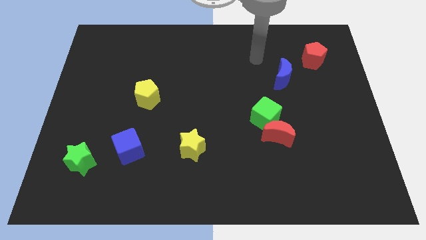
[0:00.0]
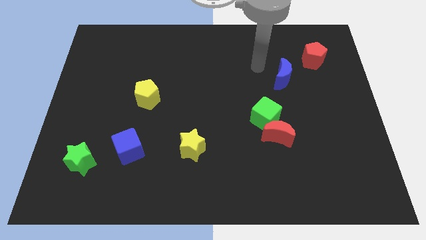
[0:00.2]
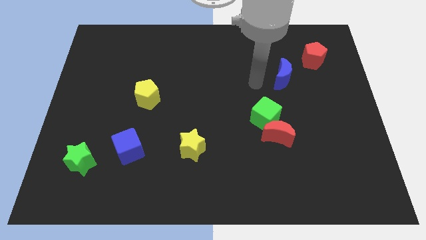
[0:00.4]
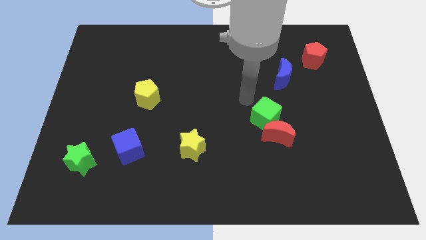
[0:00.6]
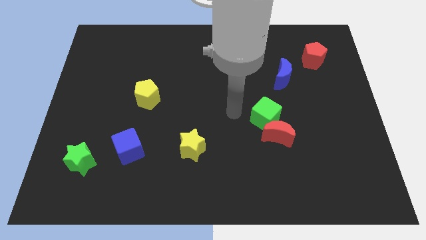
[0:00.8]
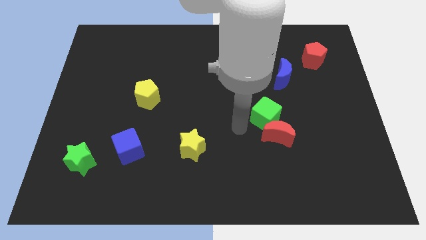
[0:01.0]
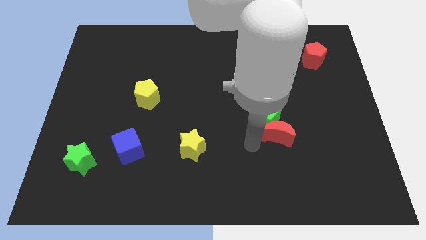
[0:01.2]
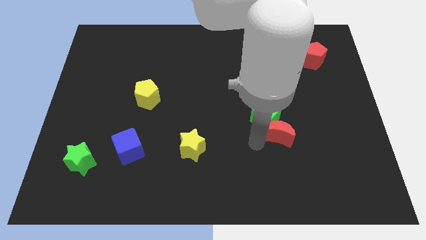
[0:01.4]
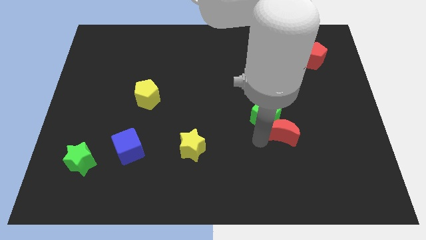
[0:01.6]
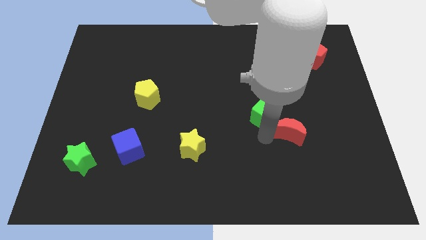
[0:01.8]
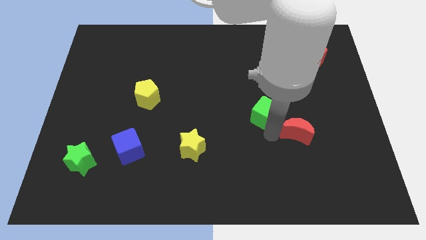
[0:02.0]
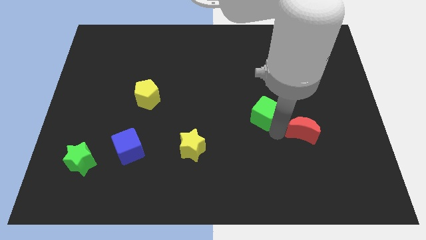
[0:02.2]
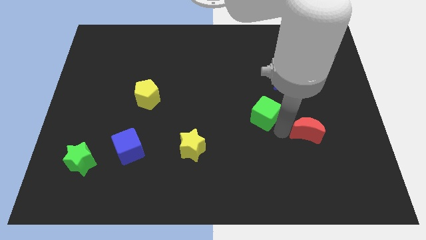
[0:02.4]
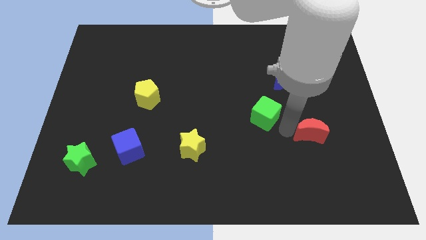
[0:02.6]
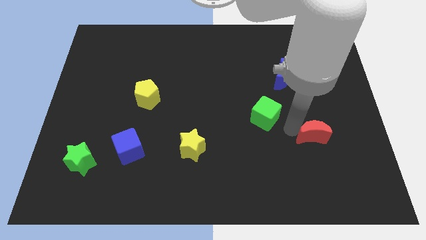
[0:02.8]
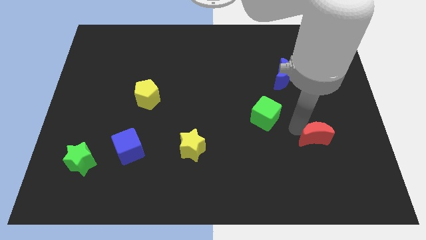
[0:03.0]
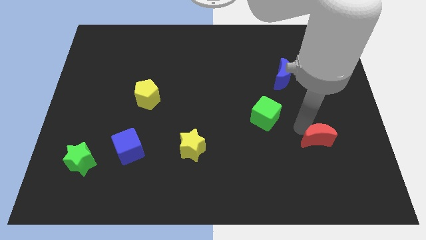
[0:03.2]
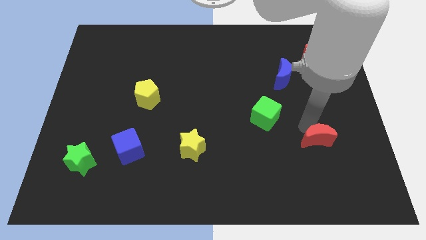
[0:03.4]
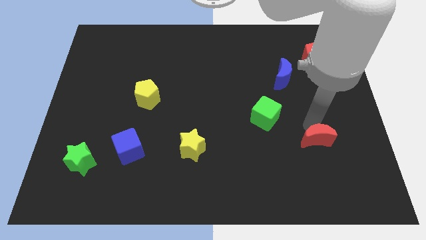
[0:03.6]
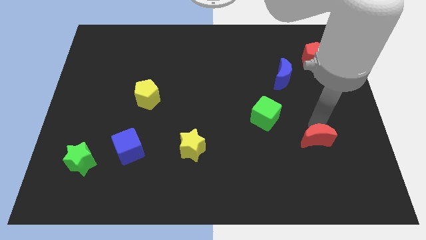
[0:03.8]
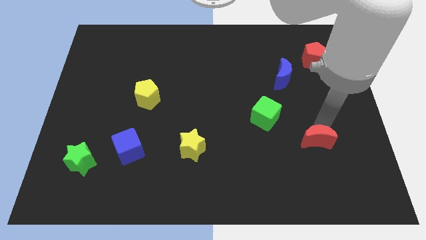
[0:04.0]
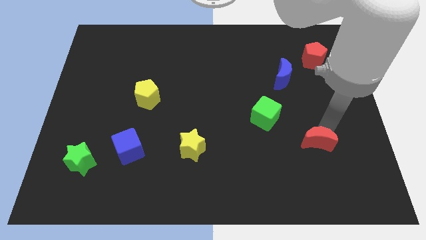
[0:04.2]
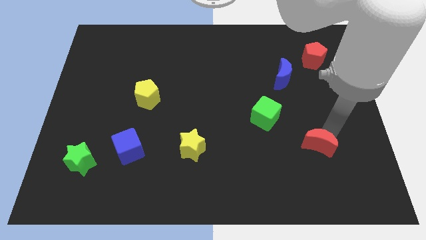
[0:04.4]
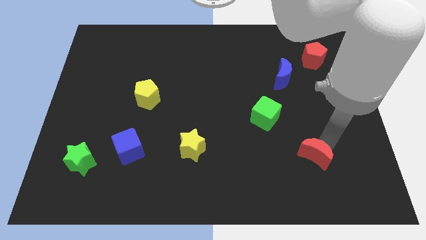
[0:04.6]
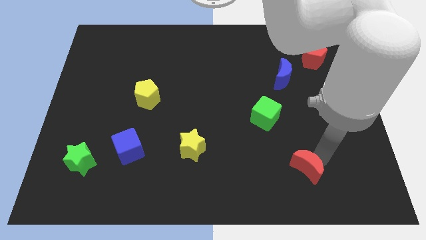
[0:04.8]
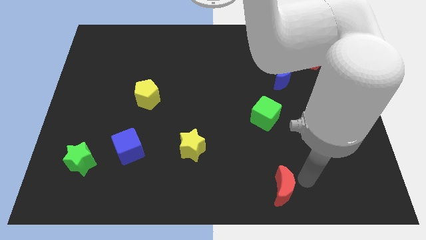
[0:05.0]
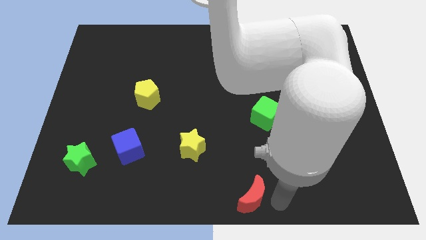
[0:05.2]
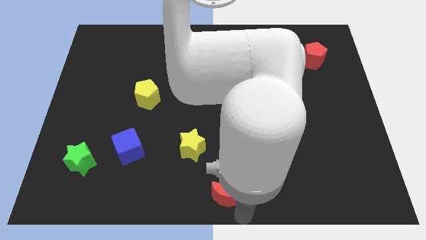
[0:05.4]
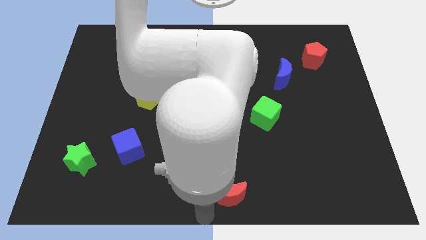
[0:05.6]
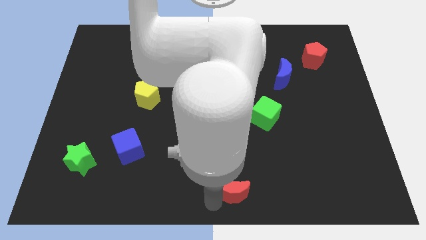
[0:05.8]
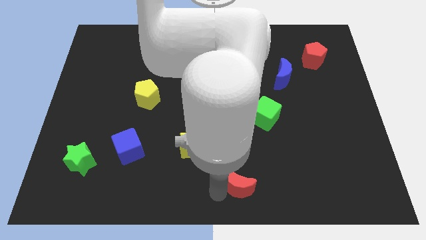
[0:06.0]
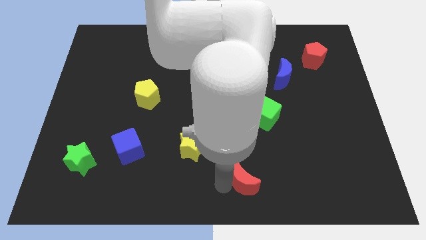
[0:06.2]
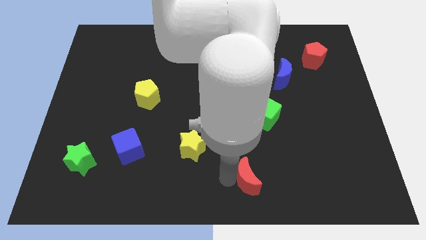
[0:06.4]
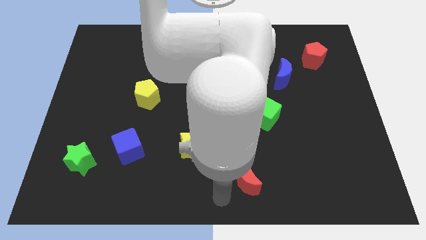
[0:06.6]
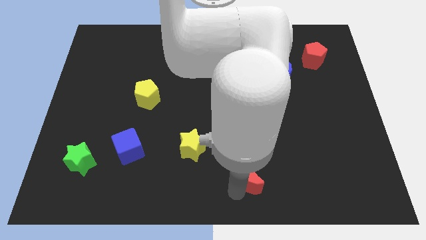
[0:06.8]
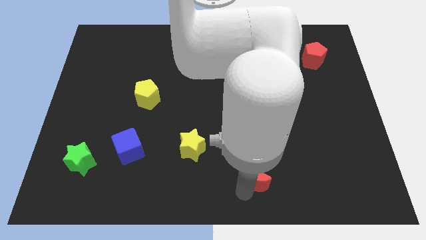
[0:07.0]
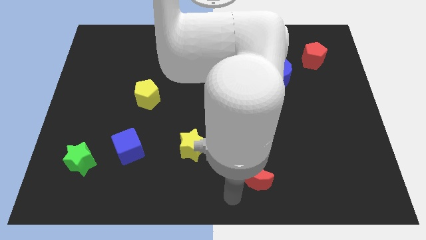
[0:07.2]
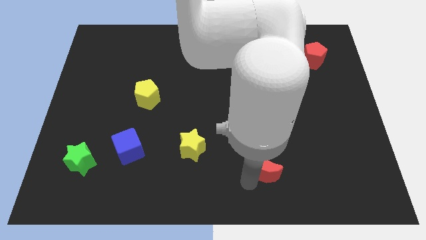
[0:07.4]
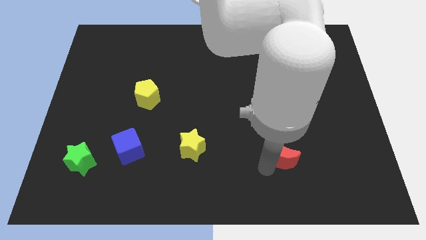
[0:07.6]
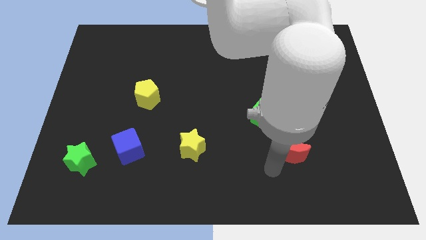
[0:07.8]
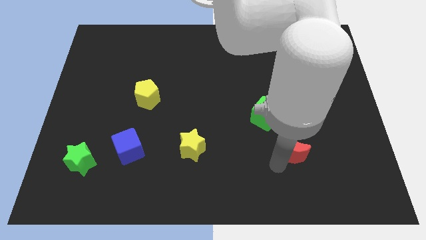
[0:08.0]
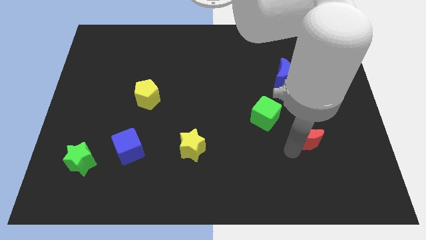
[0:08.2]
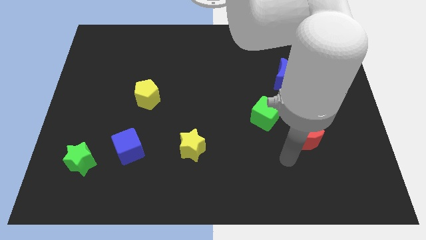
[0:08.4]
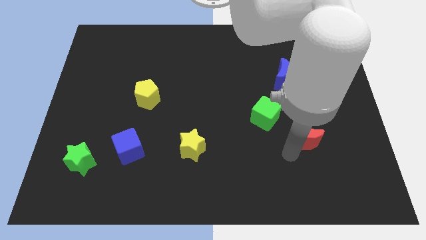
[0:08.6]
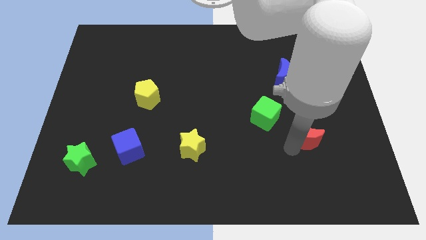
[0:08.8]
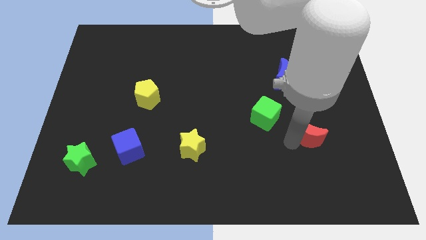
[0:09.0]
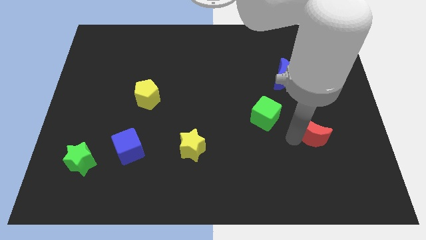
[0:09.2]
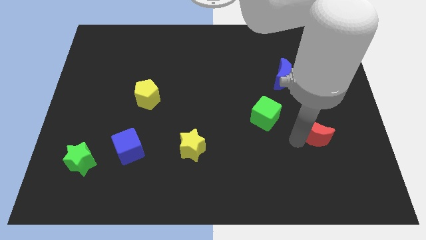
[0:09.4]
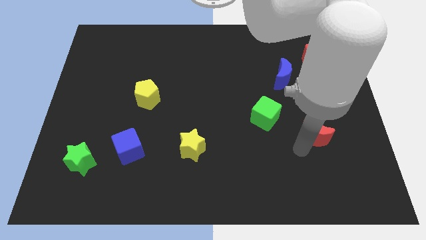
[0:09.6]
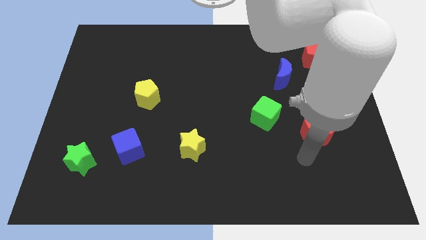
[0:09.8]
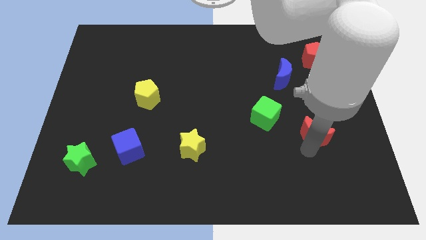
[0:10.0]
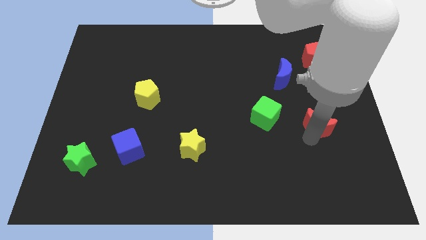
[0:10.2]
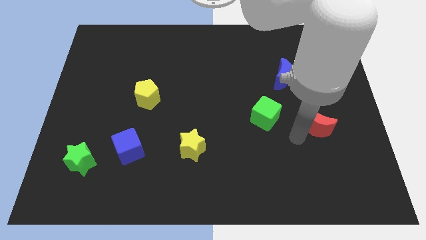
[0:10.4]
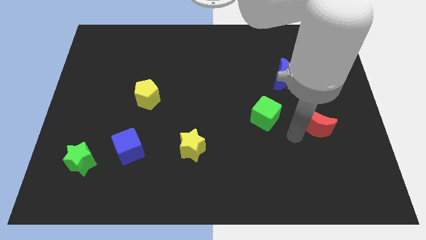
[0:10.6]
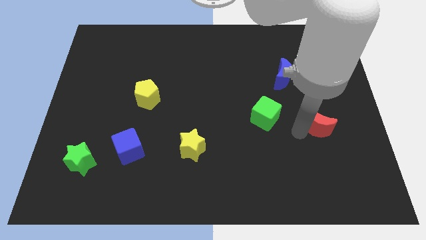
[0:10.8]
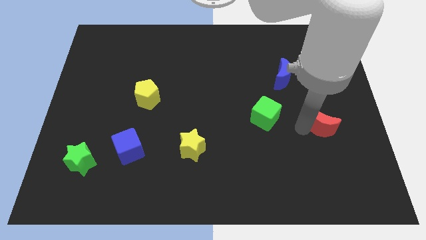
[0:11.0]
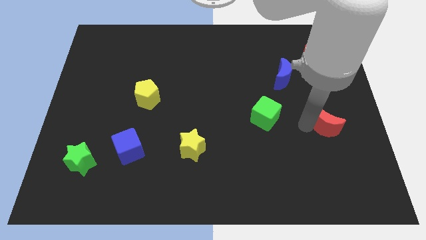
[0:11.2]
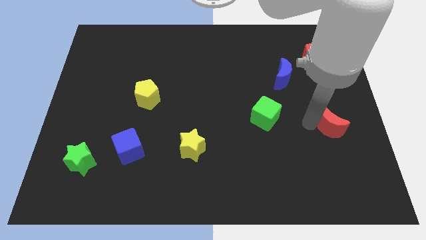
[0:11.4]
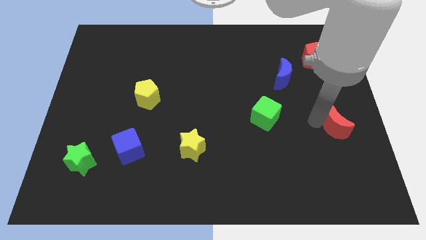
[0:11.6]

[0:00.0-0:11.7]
slide the red moon to the center right
